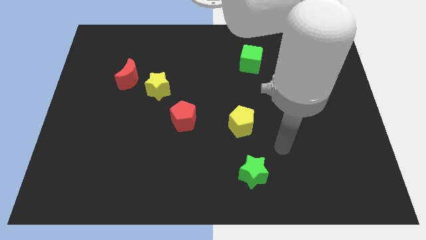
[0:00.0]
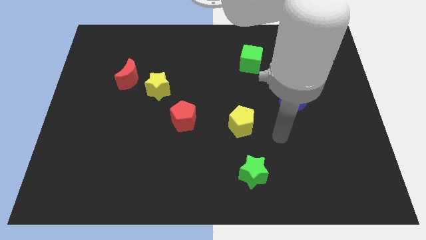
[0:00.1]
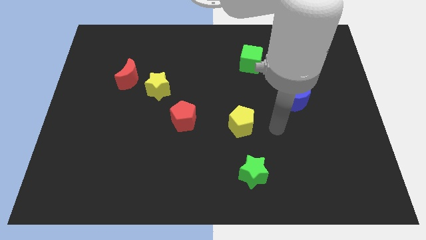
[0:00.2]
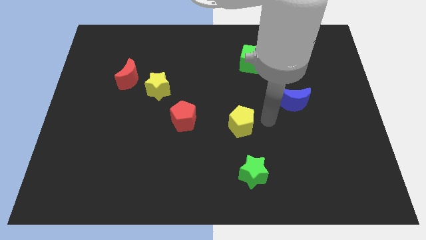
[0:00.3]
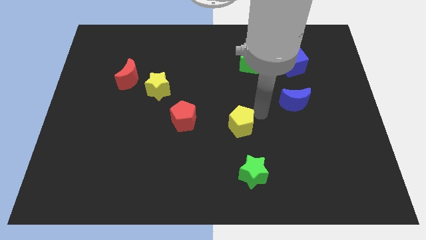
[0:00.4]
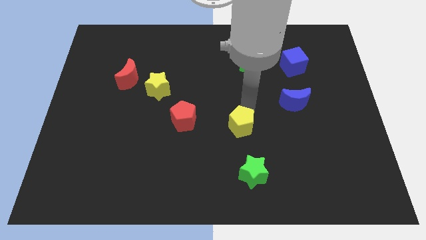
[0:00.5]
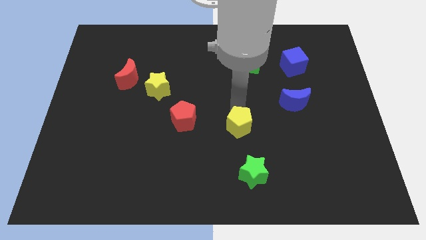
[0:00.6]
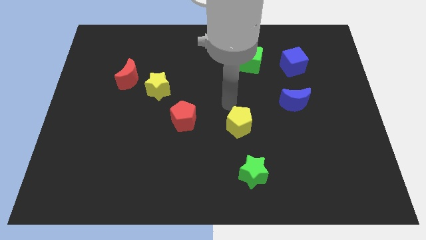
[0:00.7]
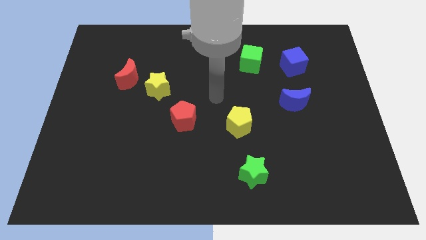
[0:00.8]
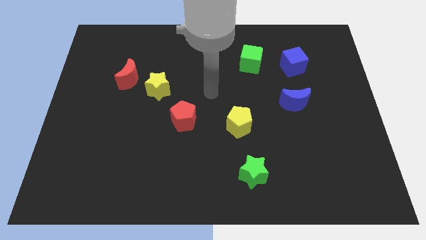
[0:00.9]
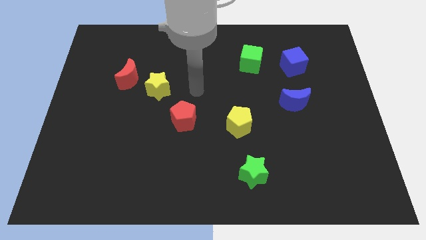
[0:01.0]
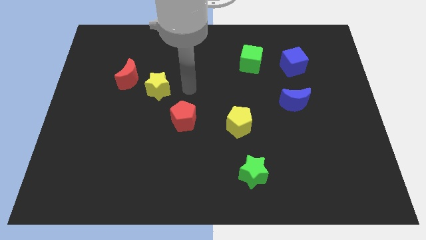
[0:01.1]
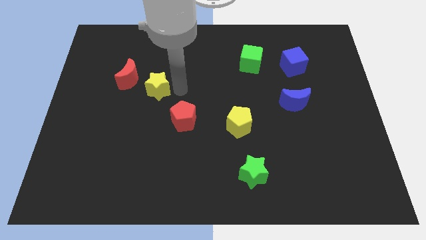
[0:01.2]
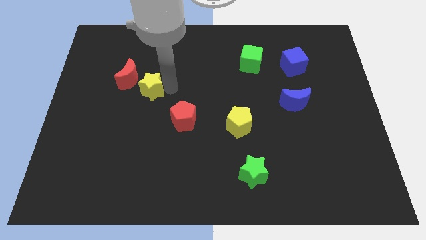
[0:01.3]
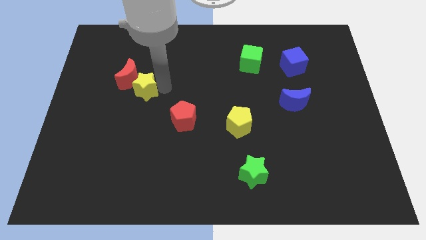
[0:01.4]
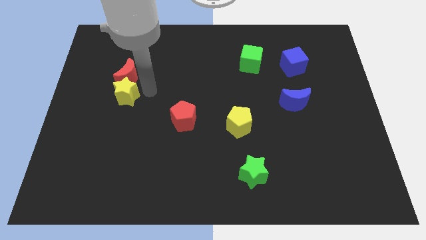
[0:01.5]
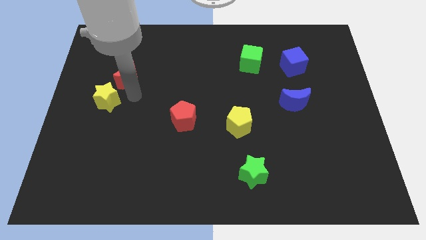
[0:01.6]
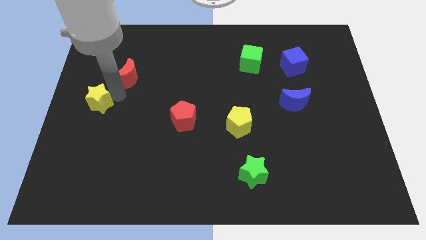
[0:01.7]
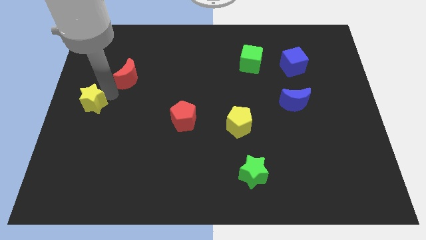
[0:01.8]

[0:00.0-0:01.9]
pull the red moon apart from the yellow star

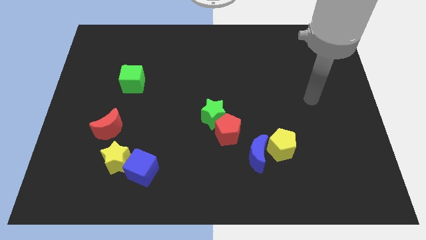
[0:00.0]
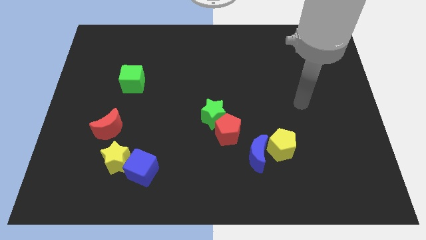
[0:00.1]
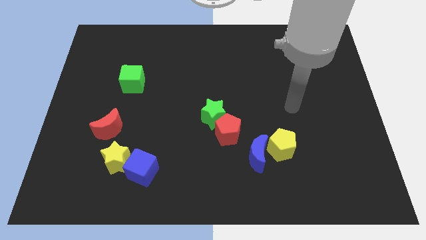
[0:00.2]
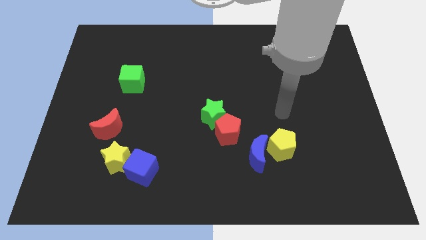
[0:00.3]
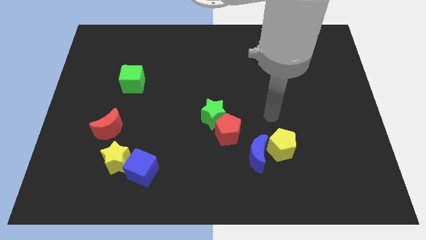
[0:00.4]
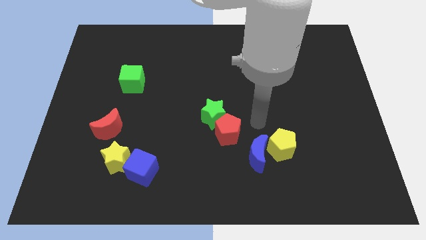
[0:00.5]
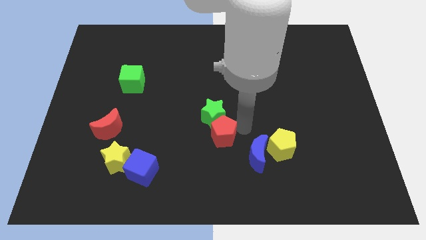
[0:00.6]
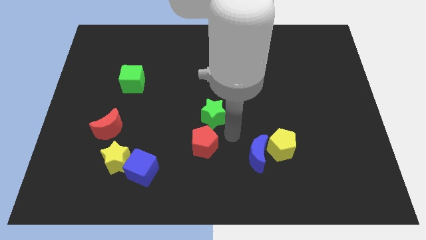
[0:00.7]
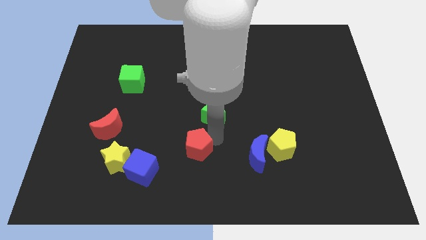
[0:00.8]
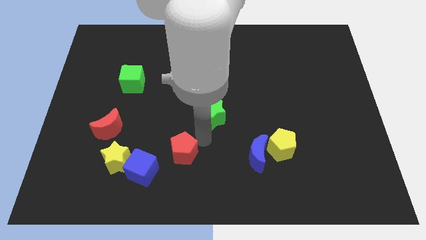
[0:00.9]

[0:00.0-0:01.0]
move the green star away from the red pentagon

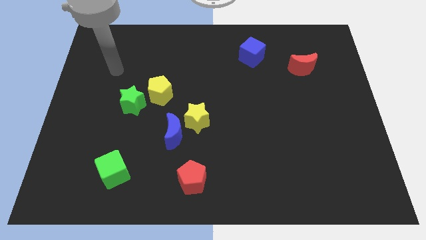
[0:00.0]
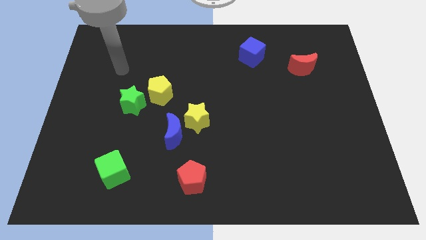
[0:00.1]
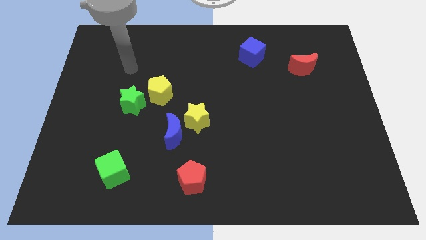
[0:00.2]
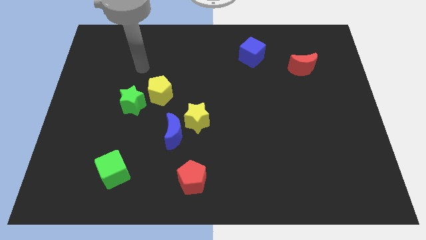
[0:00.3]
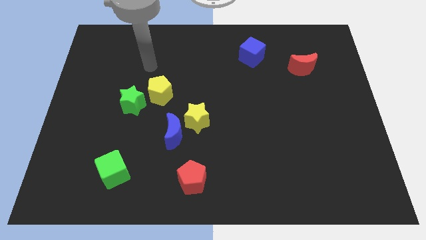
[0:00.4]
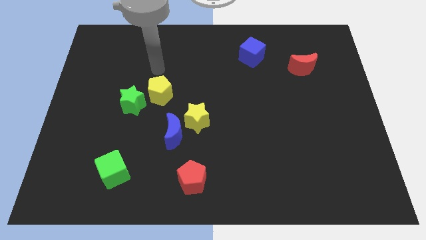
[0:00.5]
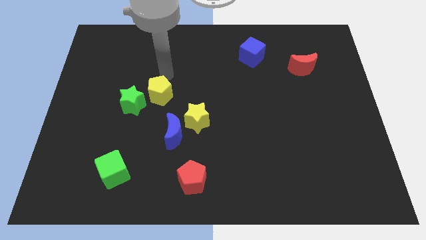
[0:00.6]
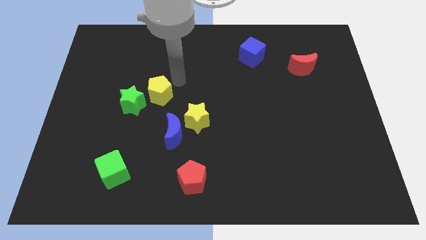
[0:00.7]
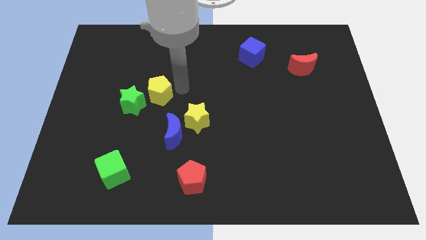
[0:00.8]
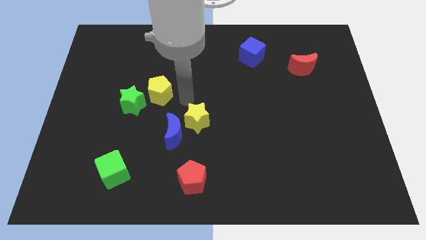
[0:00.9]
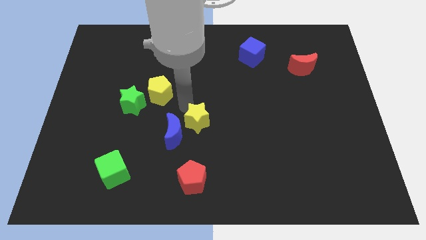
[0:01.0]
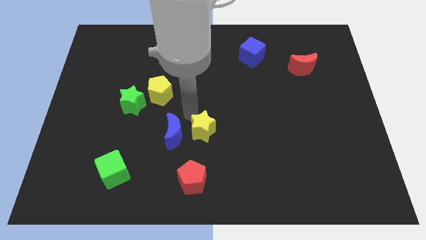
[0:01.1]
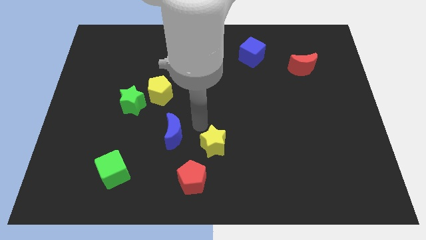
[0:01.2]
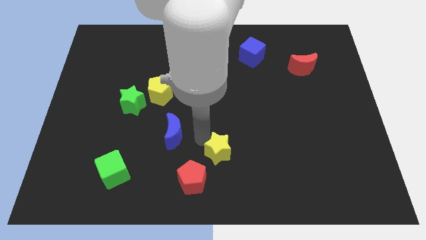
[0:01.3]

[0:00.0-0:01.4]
pull the blue moon apart from the yellow star

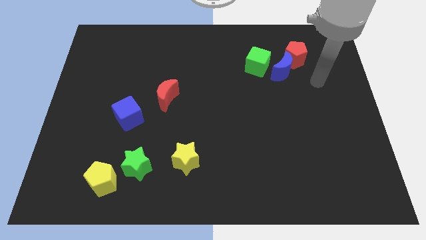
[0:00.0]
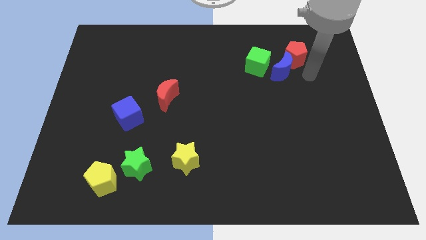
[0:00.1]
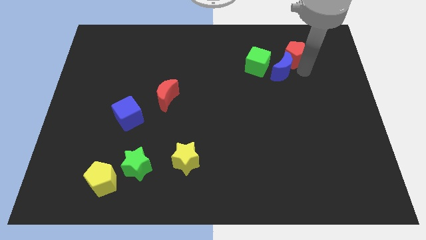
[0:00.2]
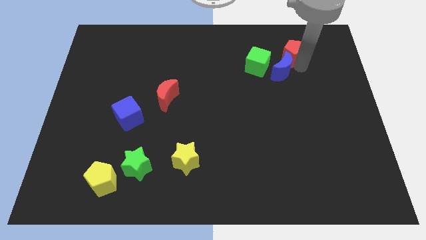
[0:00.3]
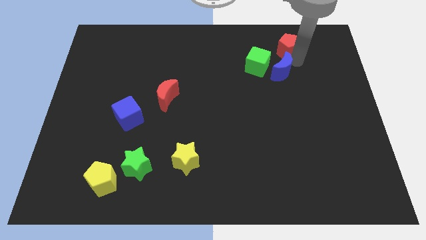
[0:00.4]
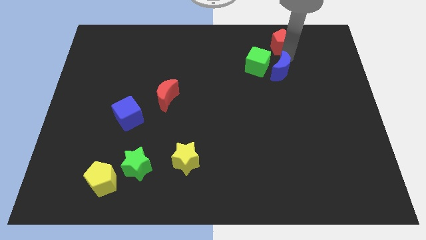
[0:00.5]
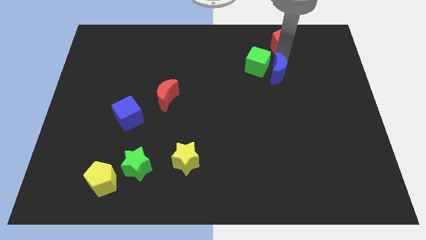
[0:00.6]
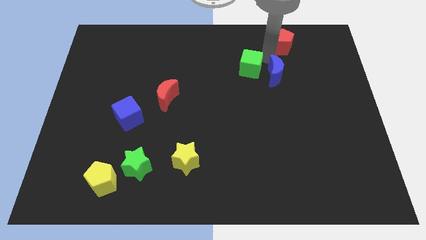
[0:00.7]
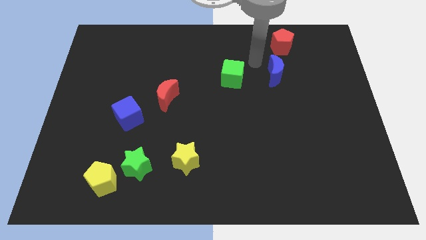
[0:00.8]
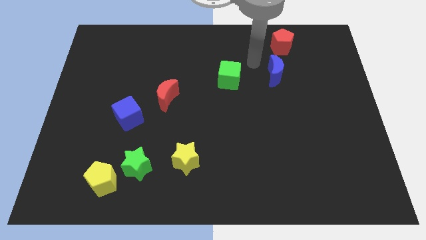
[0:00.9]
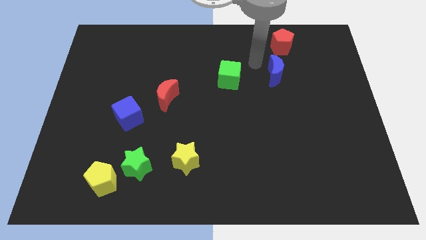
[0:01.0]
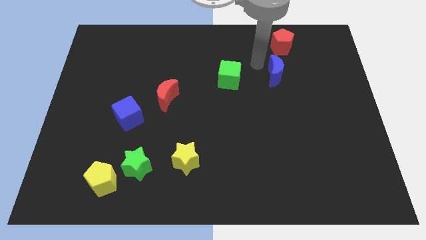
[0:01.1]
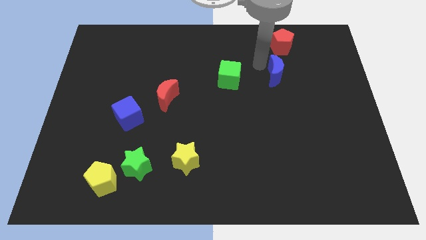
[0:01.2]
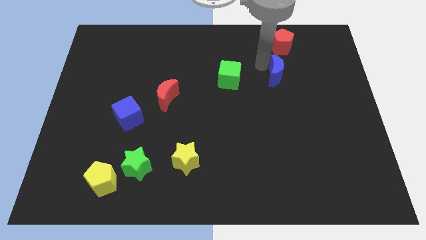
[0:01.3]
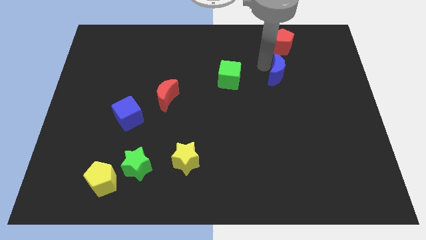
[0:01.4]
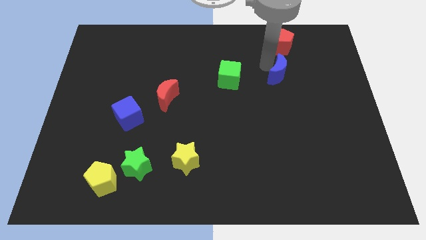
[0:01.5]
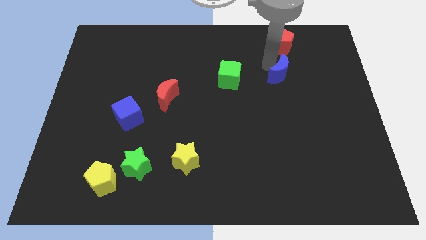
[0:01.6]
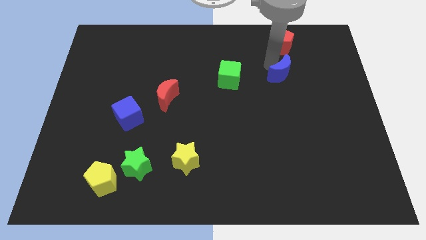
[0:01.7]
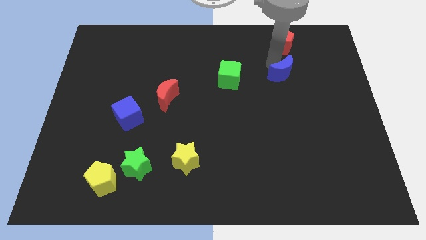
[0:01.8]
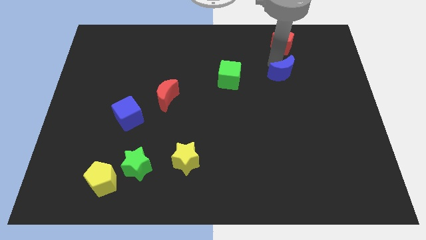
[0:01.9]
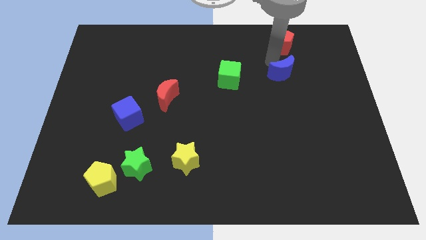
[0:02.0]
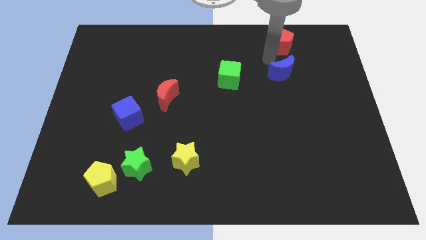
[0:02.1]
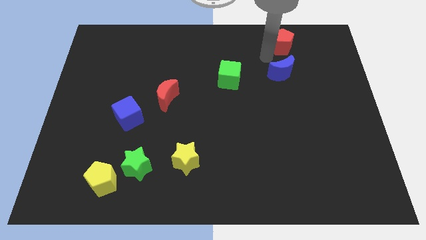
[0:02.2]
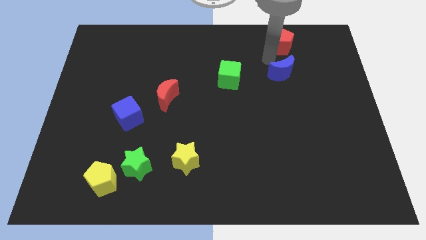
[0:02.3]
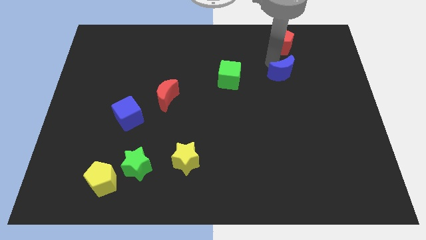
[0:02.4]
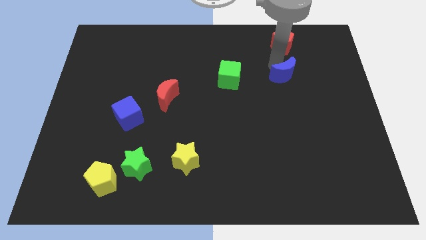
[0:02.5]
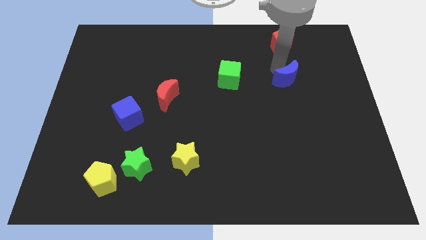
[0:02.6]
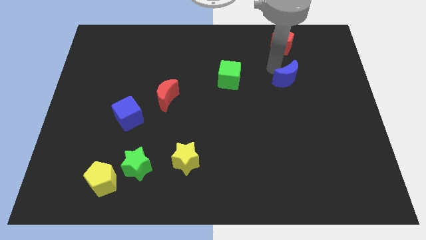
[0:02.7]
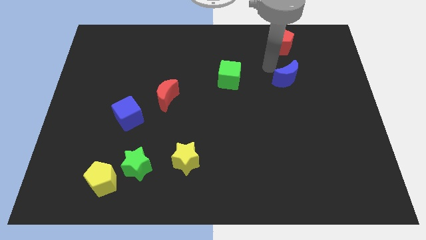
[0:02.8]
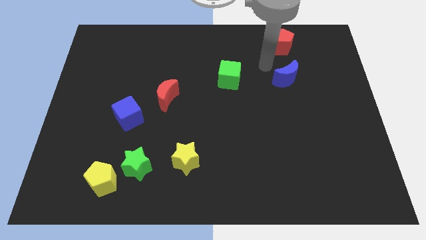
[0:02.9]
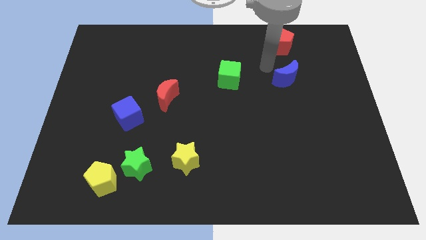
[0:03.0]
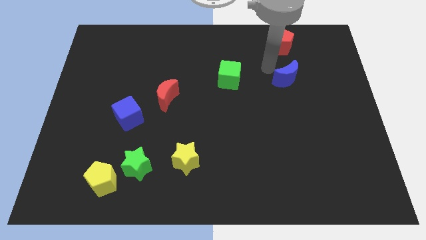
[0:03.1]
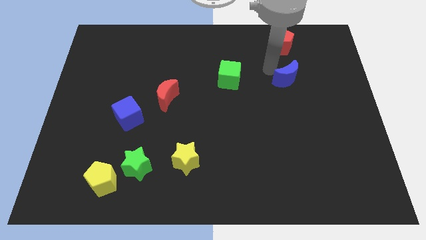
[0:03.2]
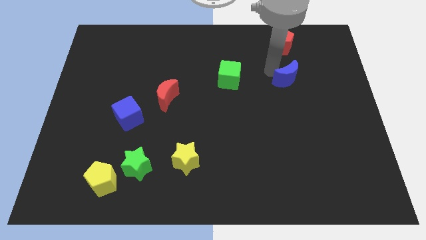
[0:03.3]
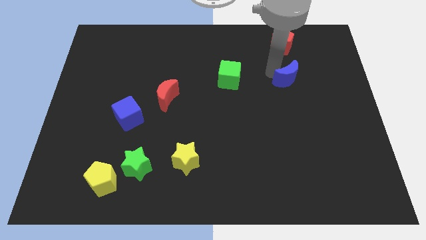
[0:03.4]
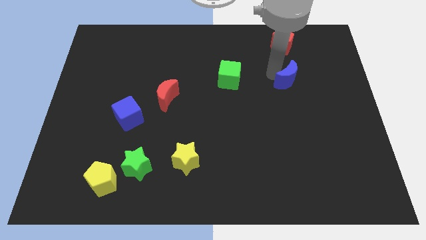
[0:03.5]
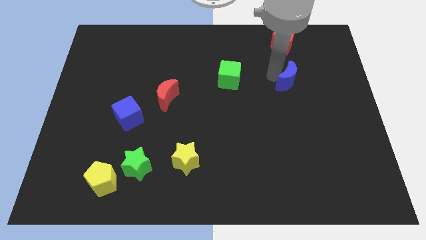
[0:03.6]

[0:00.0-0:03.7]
pull the blue moon apart from the red pentagon and green cube

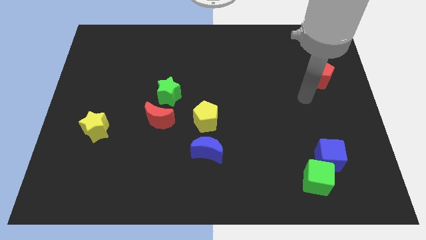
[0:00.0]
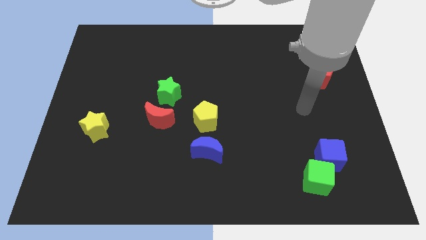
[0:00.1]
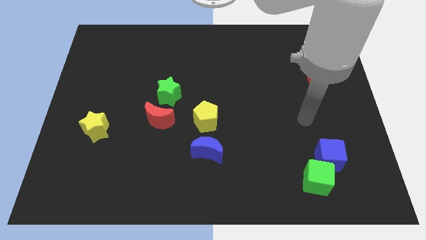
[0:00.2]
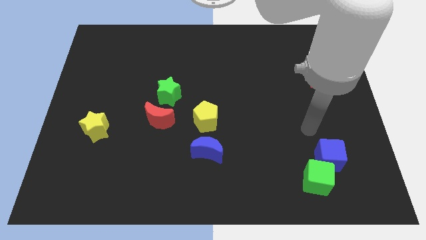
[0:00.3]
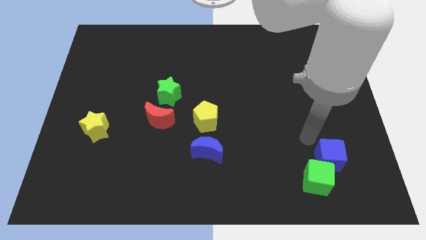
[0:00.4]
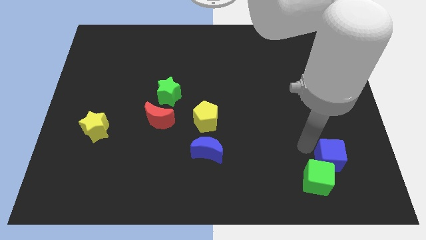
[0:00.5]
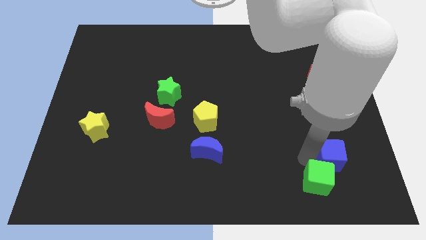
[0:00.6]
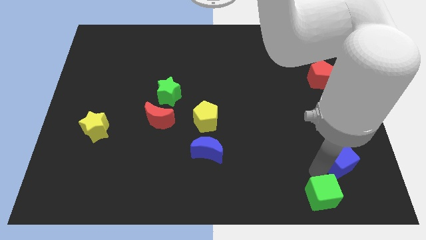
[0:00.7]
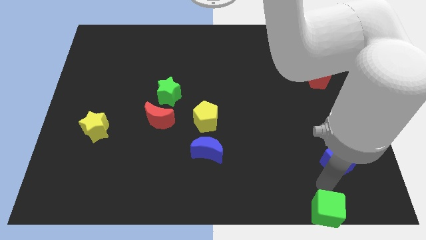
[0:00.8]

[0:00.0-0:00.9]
move the blue cube away from the green cube

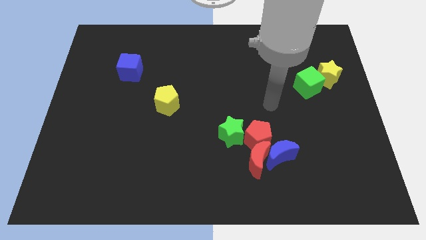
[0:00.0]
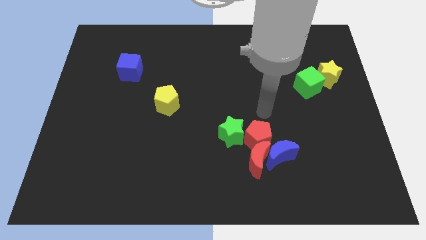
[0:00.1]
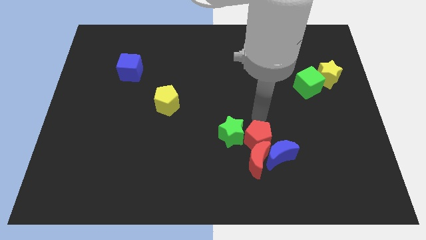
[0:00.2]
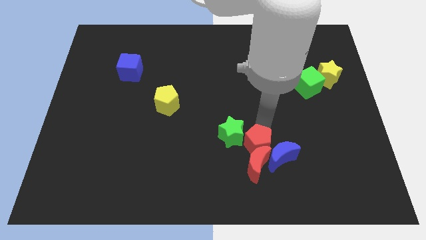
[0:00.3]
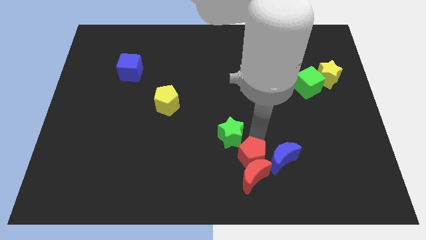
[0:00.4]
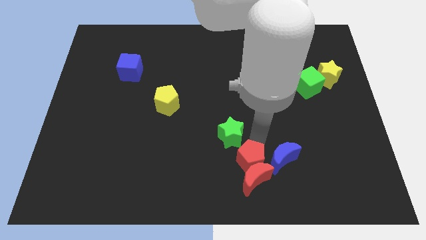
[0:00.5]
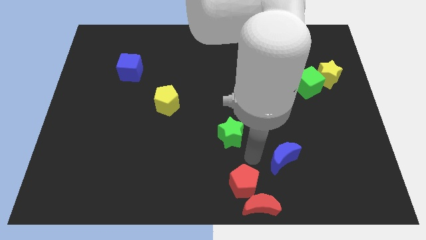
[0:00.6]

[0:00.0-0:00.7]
pull the blue moon apart from the red moon and red pentagon
